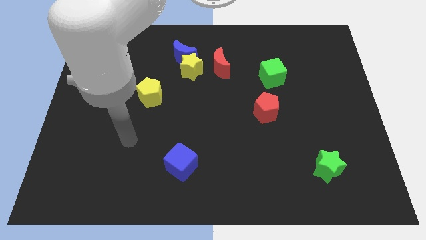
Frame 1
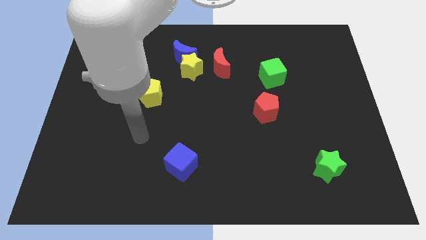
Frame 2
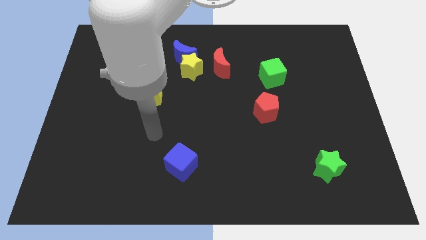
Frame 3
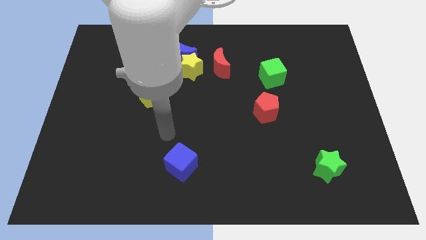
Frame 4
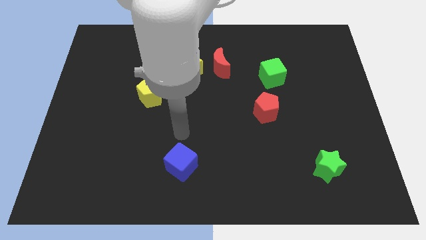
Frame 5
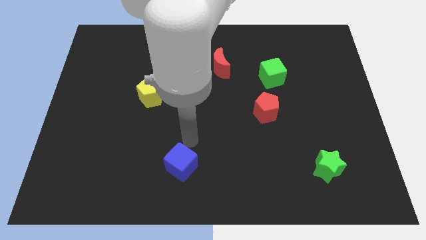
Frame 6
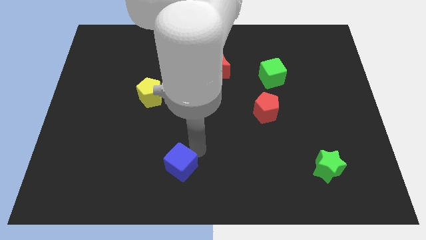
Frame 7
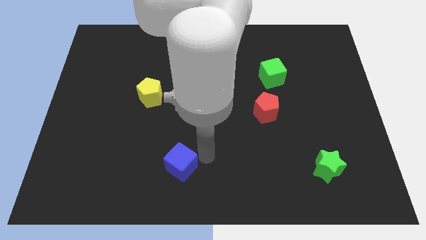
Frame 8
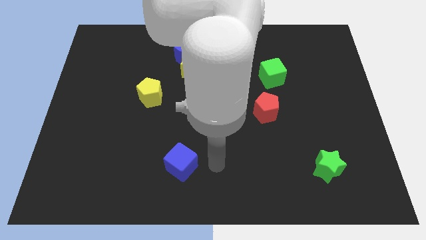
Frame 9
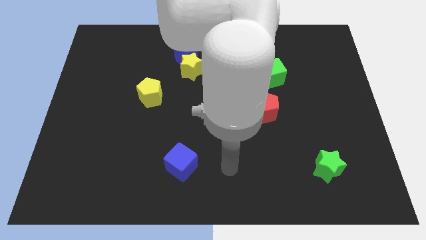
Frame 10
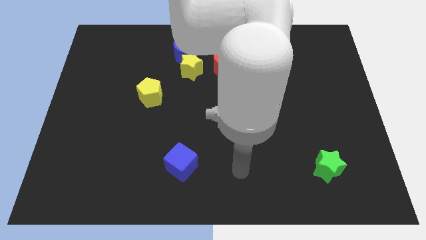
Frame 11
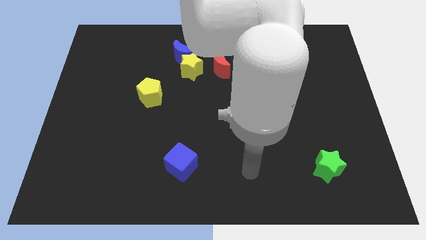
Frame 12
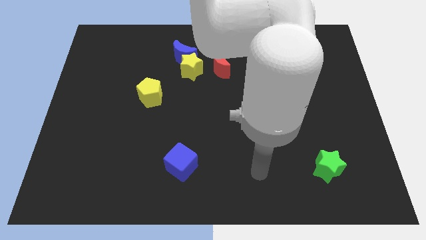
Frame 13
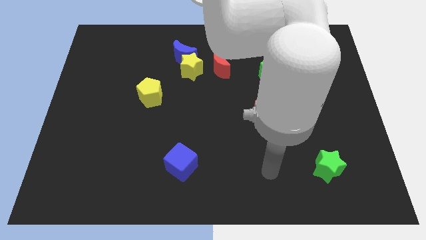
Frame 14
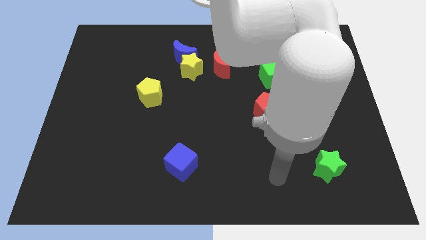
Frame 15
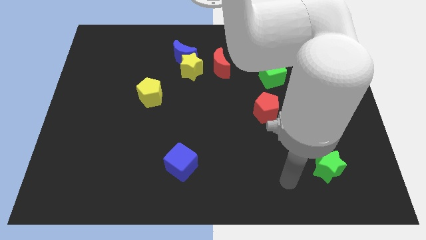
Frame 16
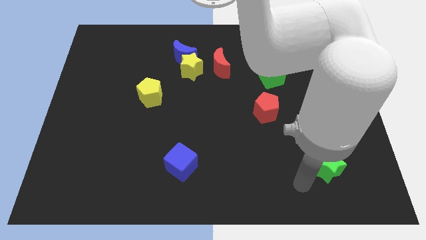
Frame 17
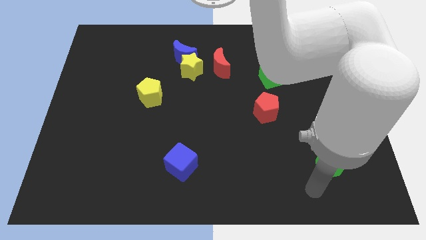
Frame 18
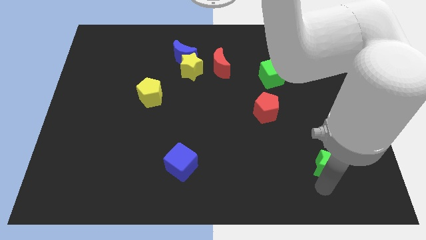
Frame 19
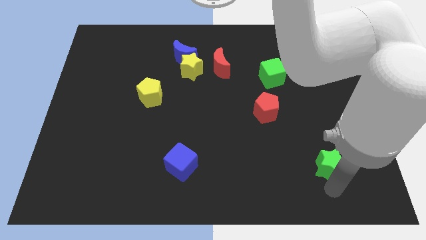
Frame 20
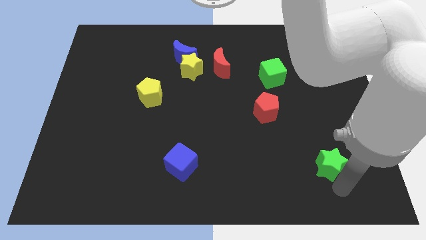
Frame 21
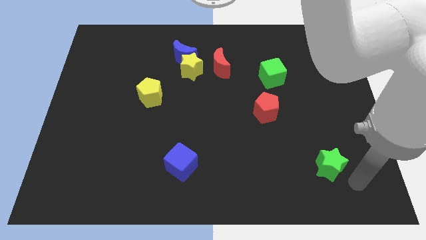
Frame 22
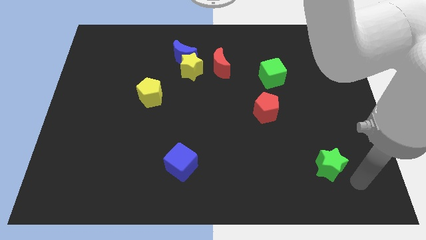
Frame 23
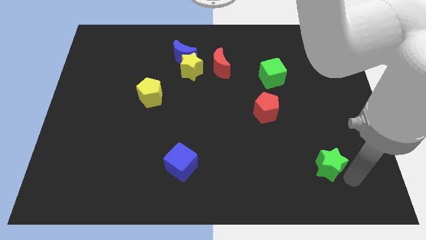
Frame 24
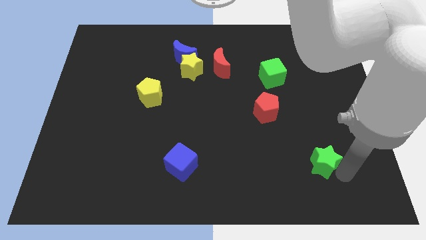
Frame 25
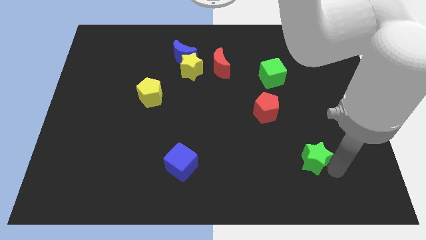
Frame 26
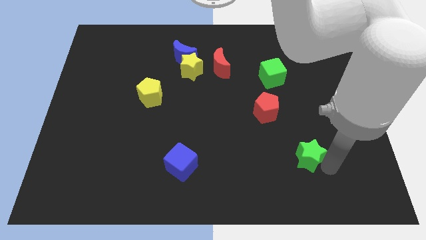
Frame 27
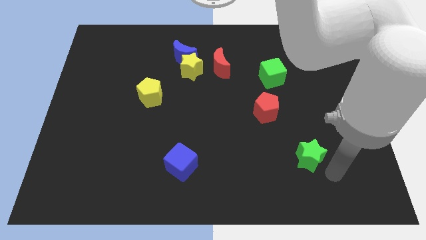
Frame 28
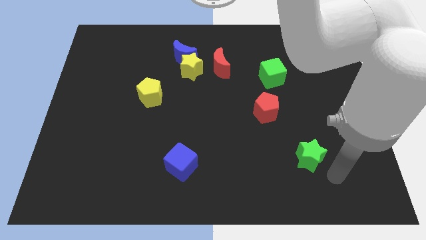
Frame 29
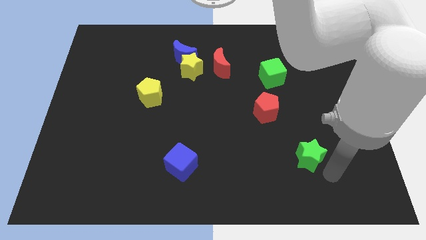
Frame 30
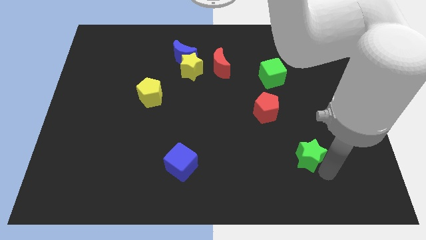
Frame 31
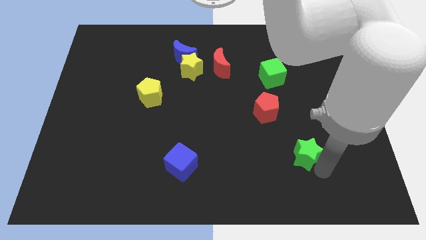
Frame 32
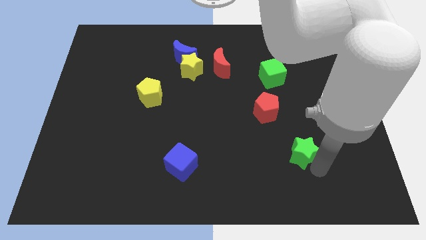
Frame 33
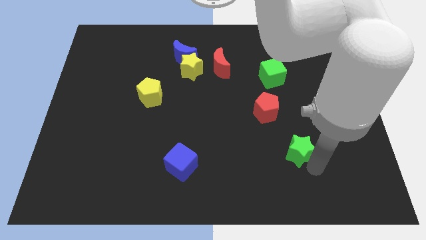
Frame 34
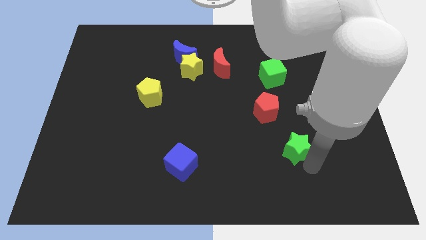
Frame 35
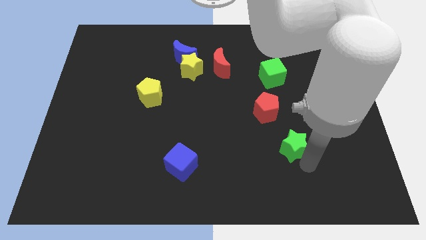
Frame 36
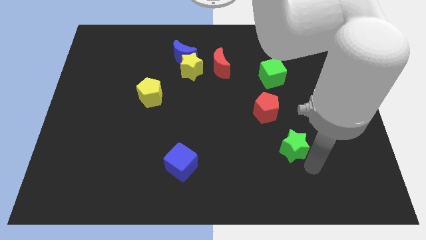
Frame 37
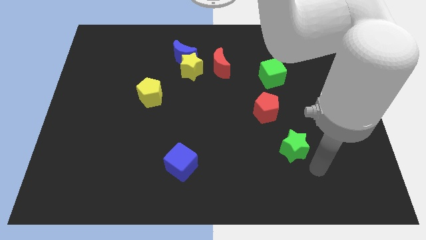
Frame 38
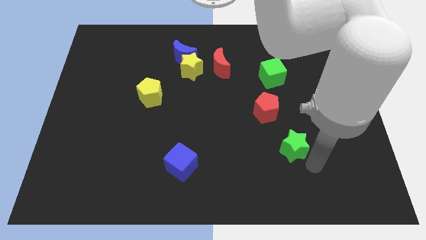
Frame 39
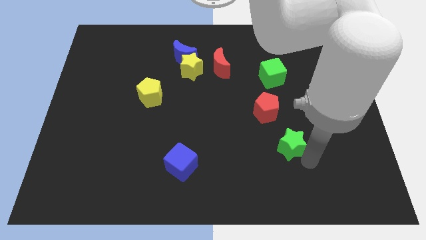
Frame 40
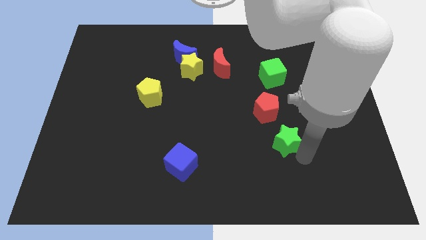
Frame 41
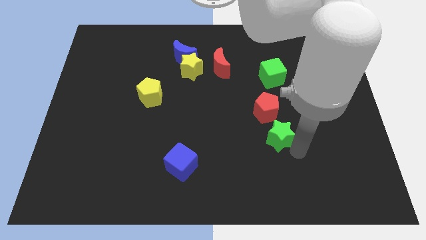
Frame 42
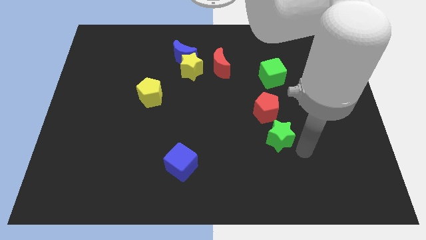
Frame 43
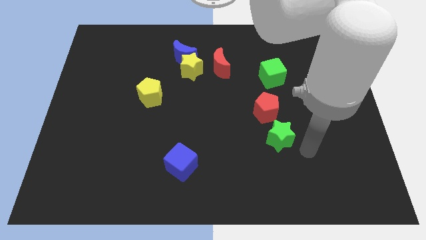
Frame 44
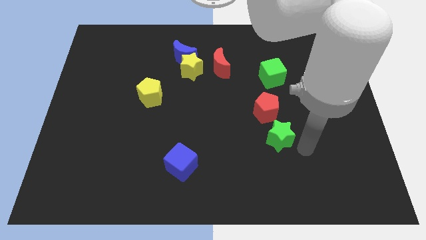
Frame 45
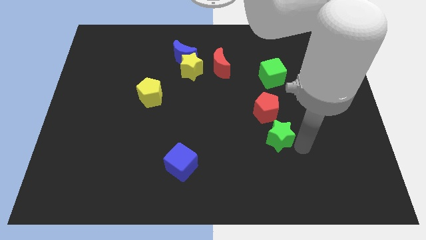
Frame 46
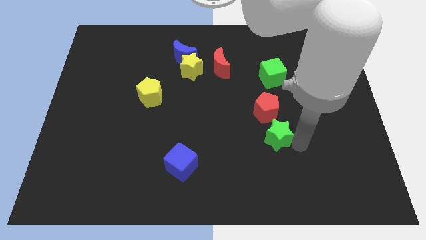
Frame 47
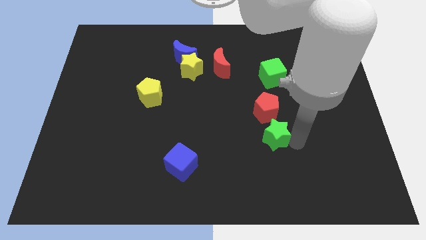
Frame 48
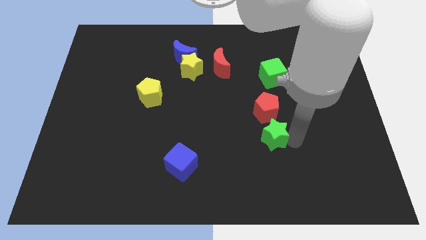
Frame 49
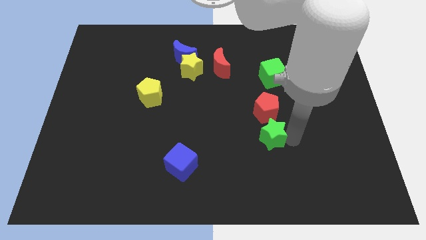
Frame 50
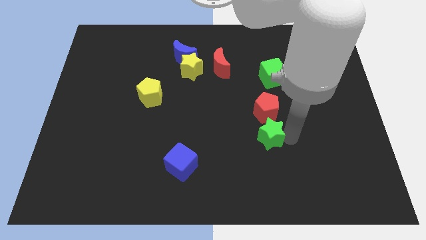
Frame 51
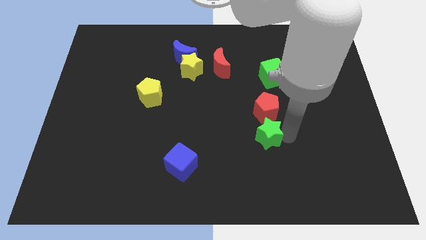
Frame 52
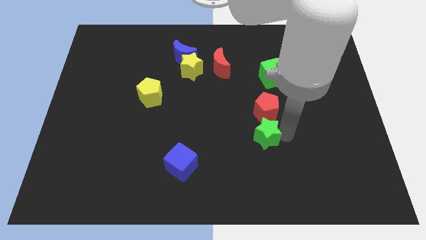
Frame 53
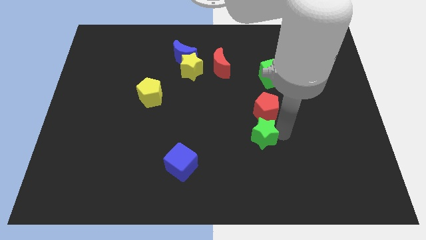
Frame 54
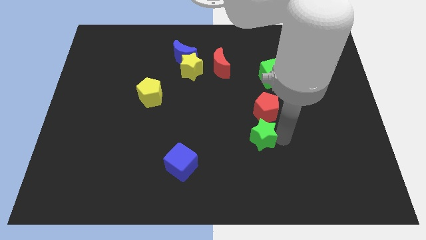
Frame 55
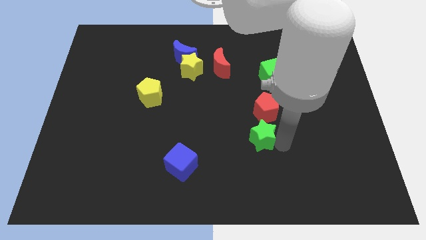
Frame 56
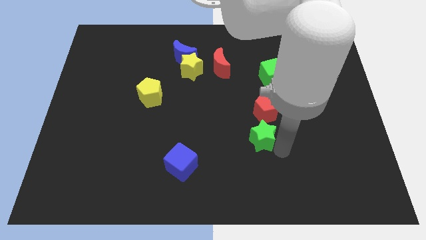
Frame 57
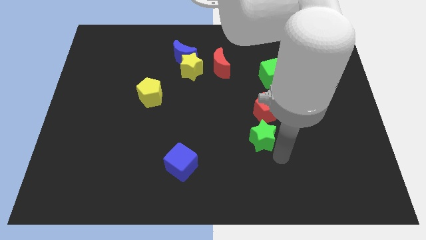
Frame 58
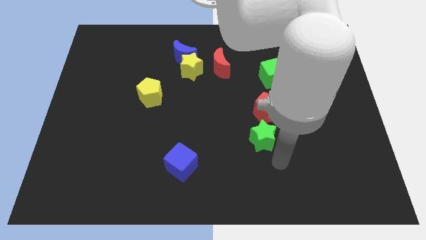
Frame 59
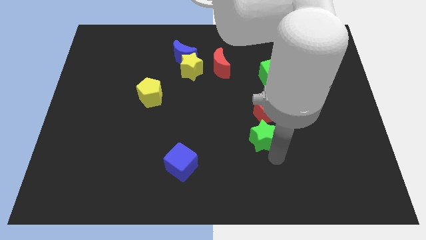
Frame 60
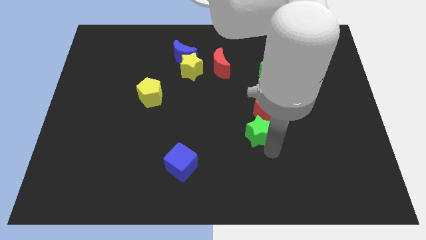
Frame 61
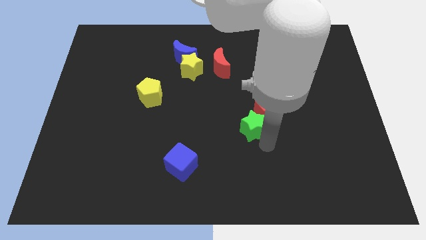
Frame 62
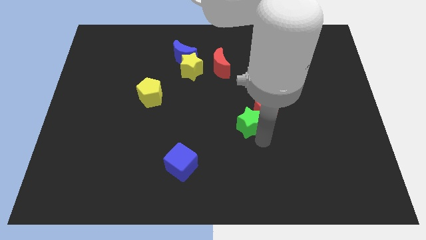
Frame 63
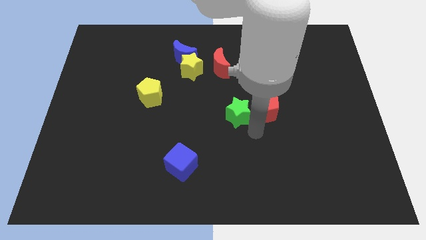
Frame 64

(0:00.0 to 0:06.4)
push the green star diagonally up and to the left

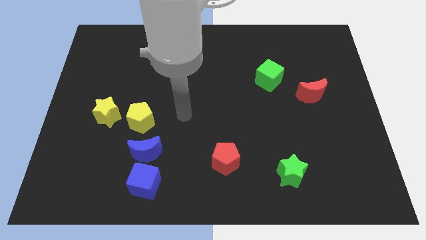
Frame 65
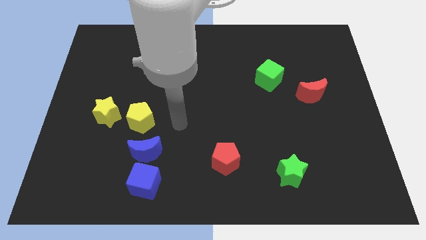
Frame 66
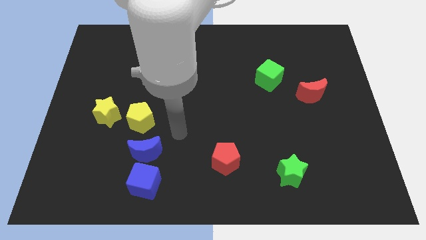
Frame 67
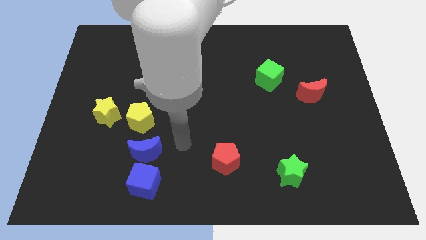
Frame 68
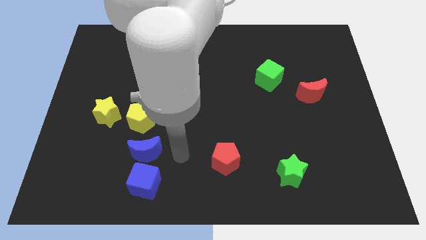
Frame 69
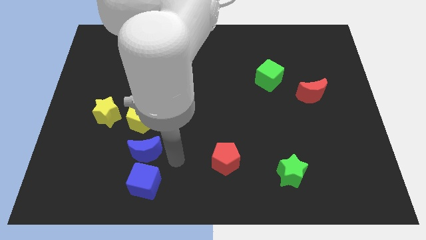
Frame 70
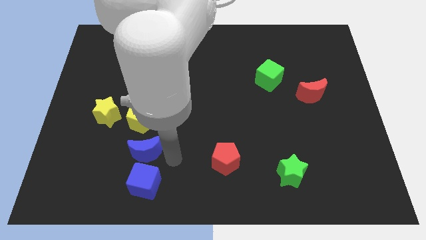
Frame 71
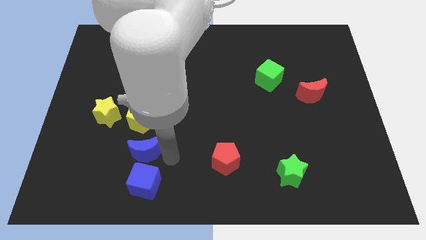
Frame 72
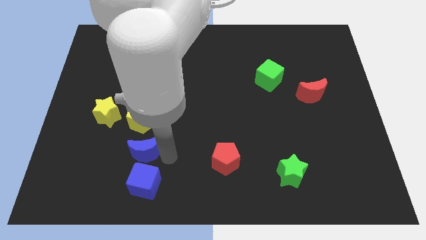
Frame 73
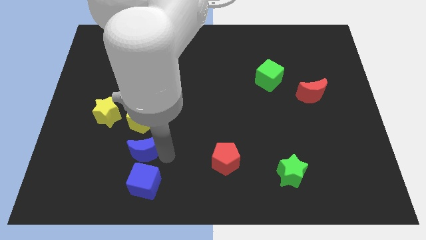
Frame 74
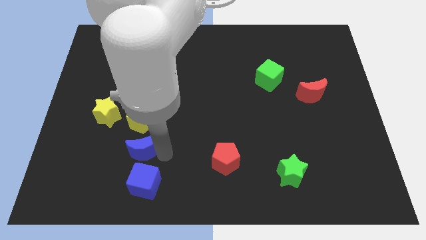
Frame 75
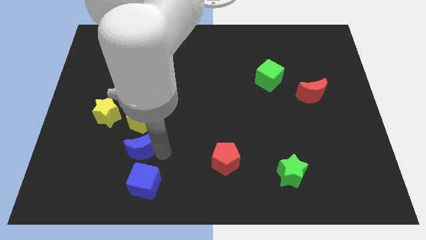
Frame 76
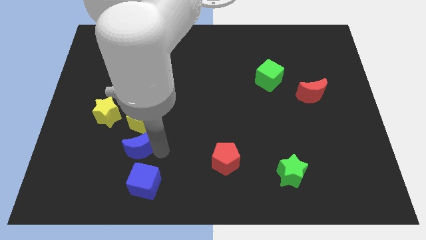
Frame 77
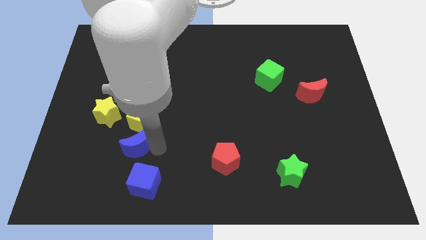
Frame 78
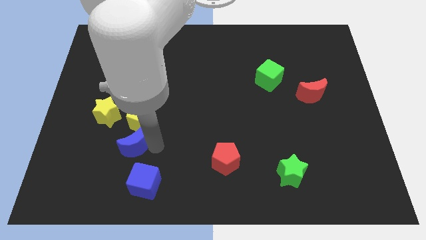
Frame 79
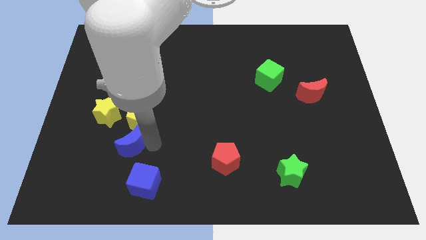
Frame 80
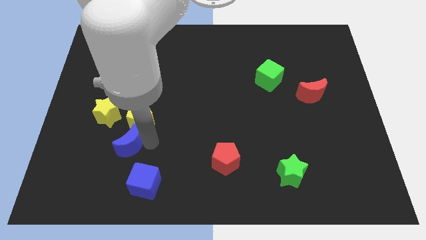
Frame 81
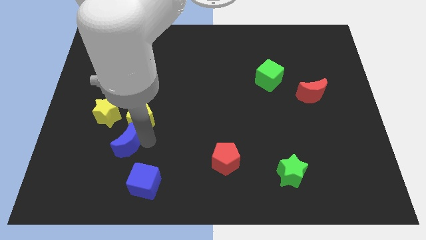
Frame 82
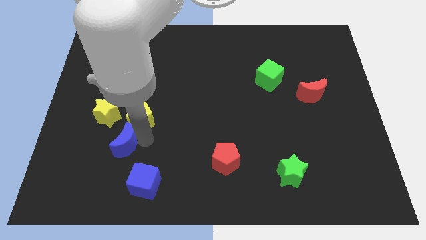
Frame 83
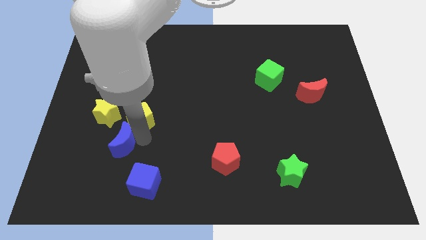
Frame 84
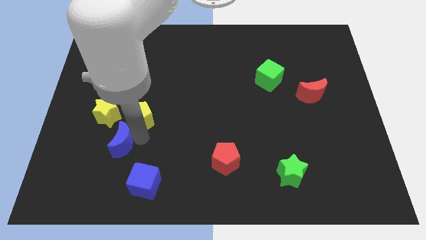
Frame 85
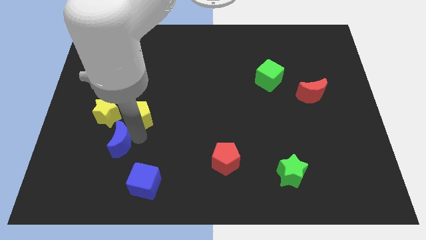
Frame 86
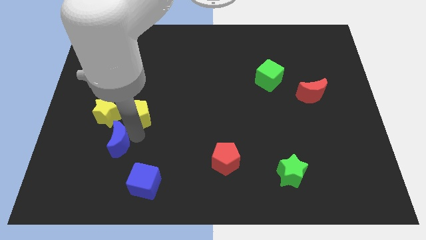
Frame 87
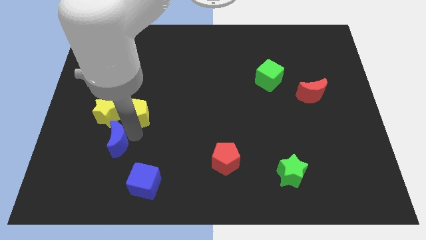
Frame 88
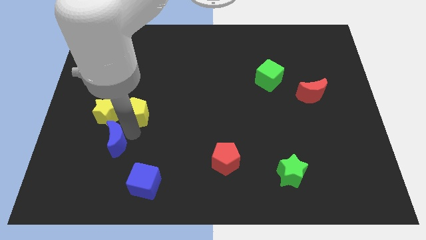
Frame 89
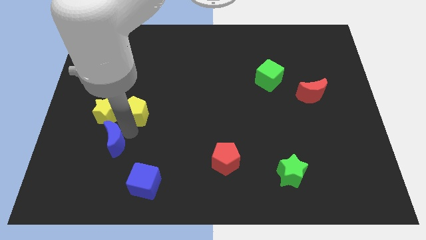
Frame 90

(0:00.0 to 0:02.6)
move the blue moon up and then to the left slightly
